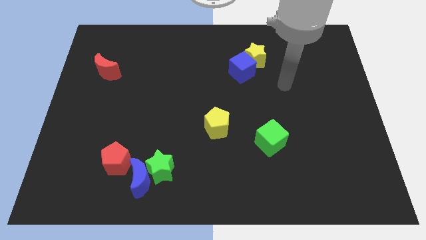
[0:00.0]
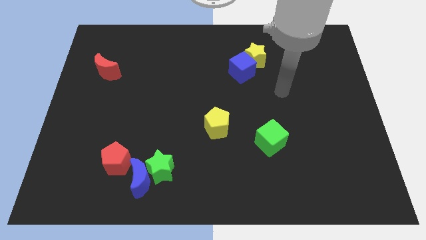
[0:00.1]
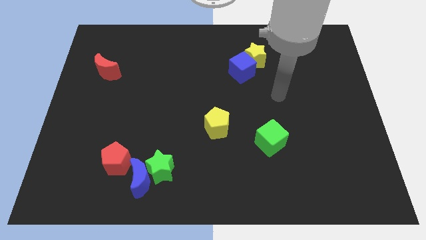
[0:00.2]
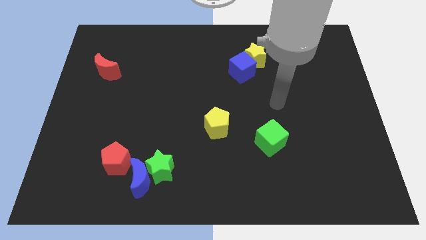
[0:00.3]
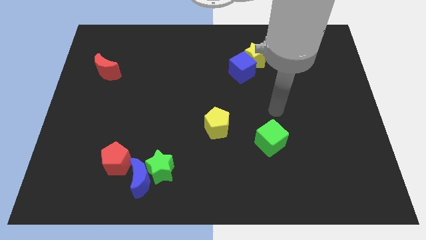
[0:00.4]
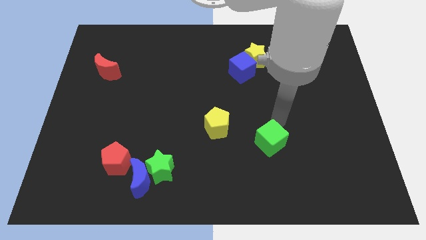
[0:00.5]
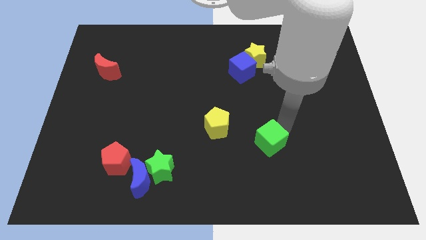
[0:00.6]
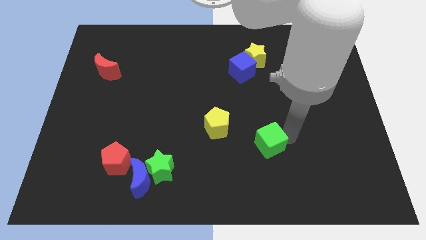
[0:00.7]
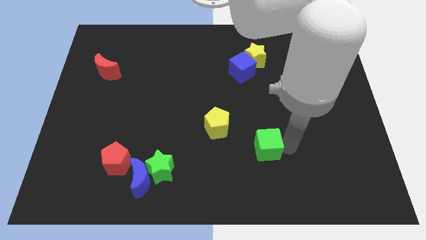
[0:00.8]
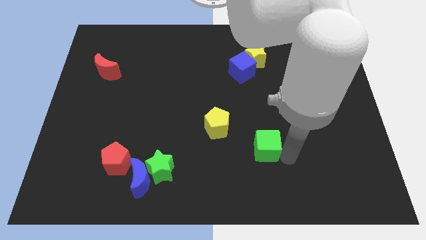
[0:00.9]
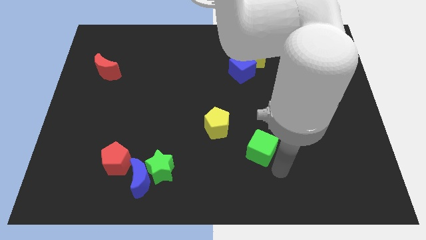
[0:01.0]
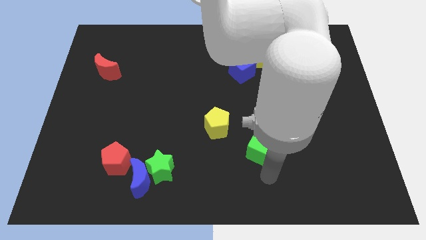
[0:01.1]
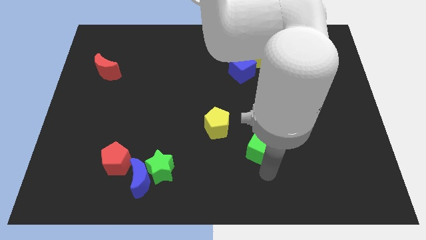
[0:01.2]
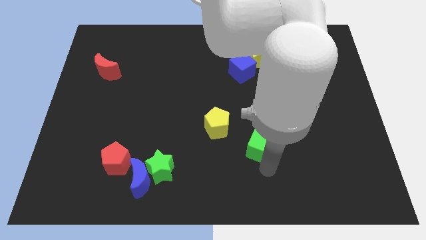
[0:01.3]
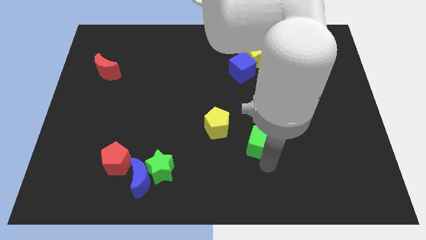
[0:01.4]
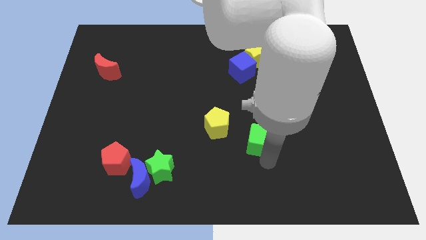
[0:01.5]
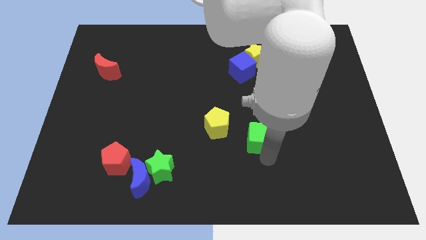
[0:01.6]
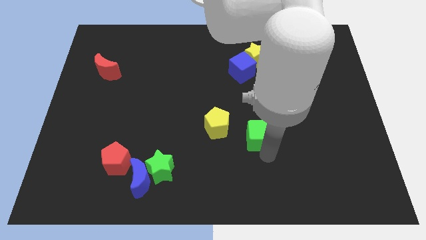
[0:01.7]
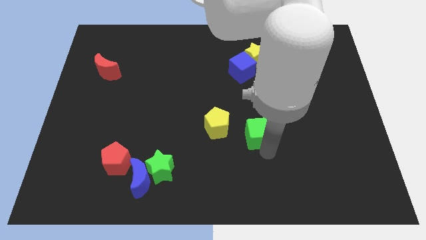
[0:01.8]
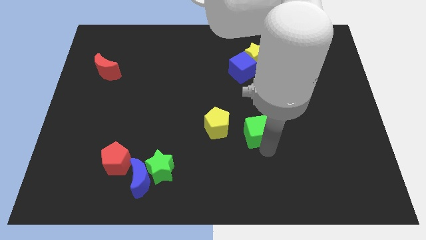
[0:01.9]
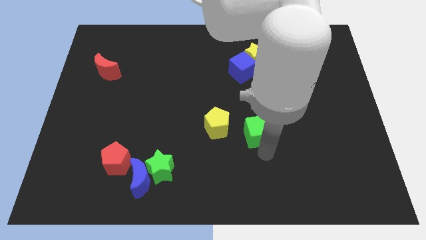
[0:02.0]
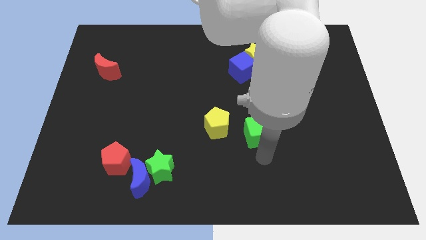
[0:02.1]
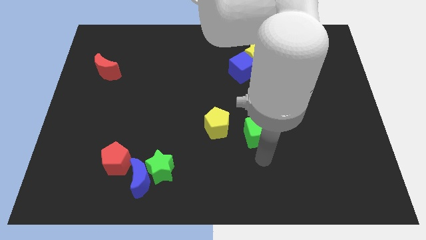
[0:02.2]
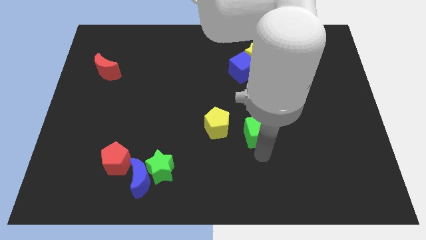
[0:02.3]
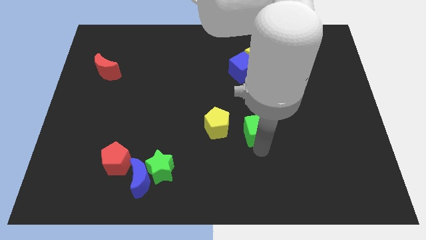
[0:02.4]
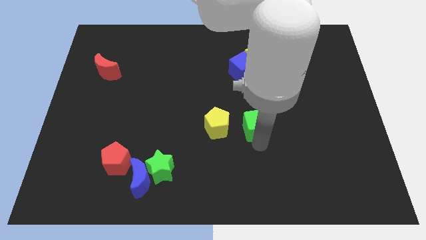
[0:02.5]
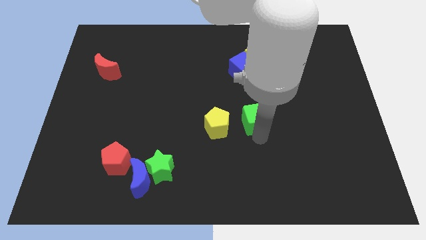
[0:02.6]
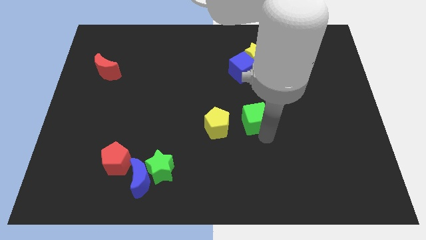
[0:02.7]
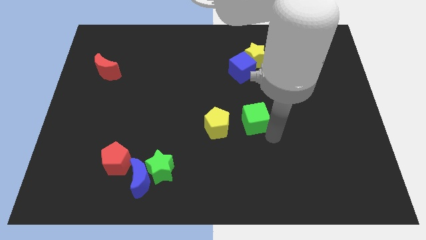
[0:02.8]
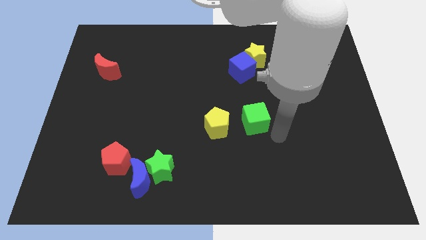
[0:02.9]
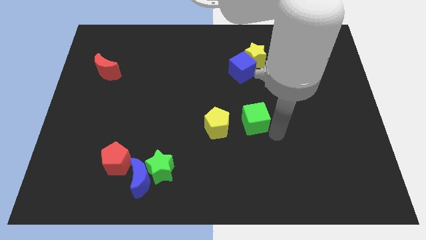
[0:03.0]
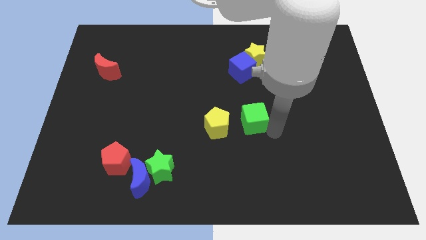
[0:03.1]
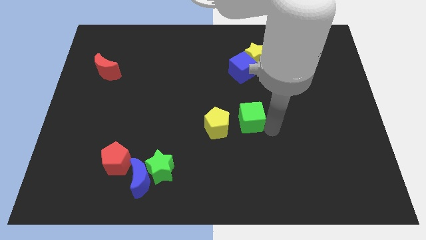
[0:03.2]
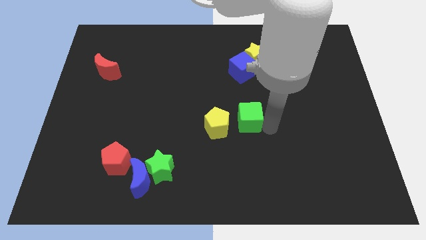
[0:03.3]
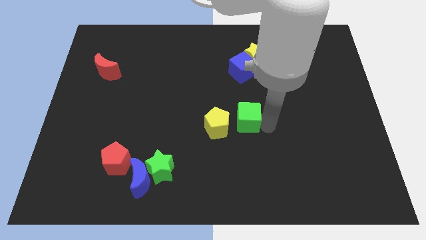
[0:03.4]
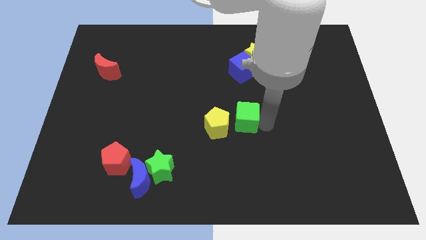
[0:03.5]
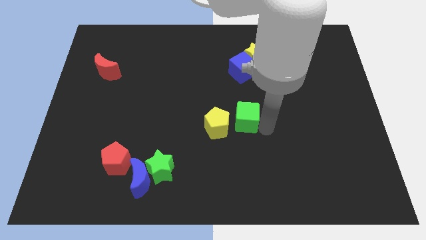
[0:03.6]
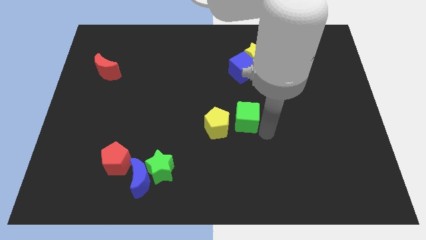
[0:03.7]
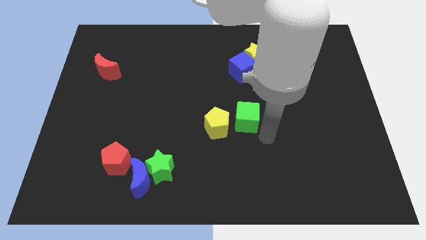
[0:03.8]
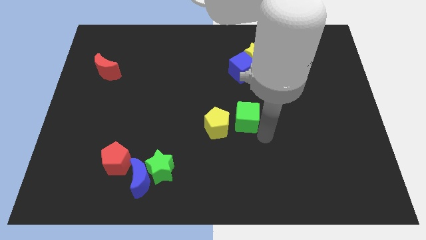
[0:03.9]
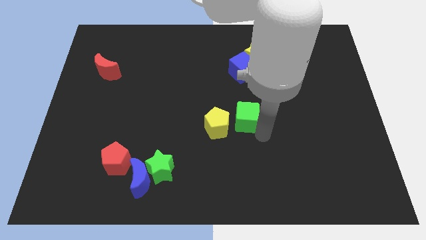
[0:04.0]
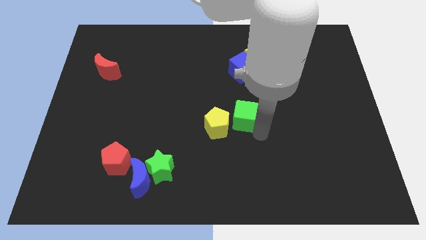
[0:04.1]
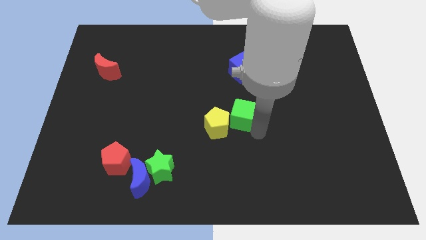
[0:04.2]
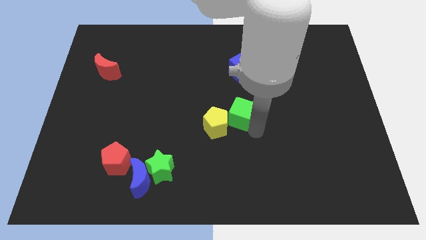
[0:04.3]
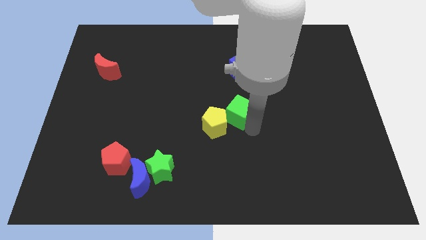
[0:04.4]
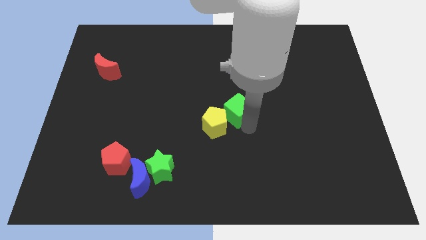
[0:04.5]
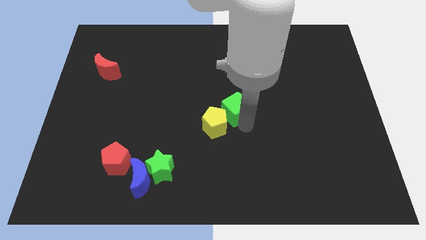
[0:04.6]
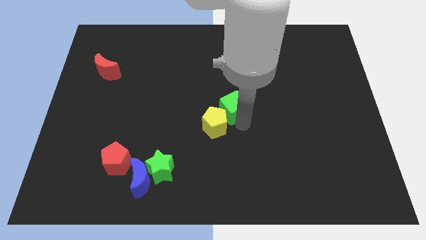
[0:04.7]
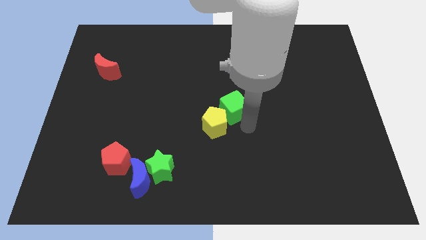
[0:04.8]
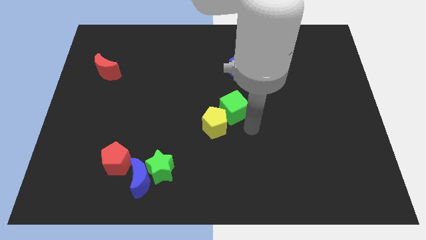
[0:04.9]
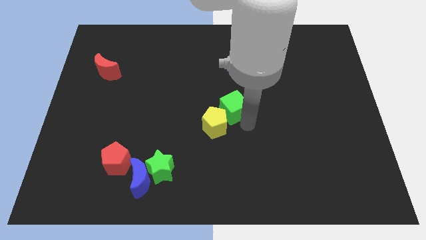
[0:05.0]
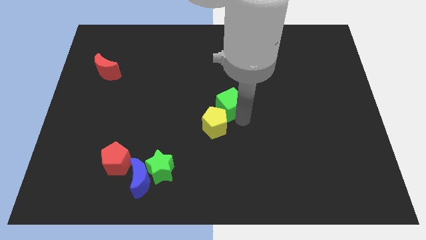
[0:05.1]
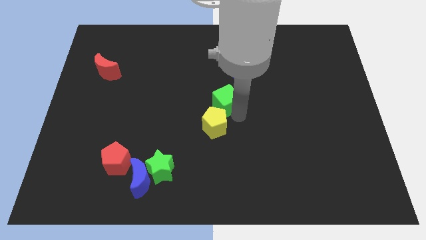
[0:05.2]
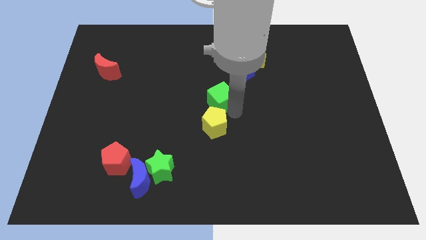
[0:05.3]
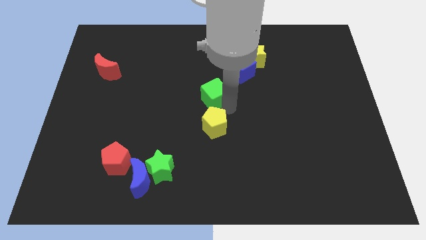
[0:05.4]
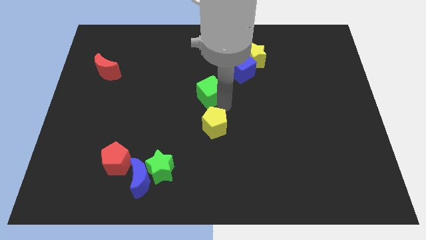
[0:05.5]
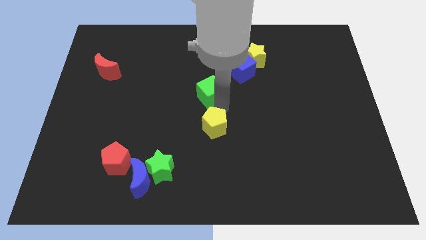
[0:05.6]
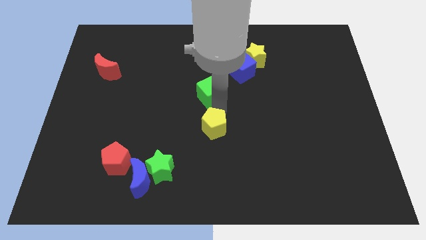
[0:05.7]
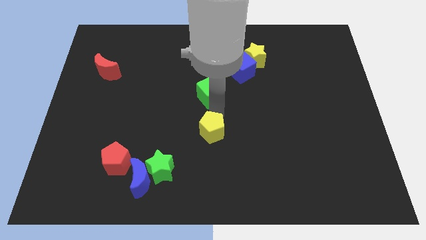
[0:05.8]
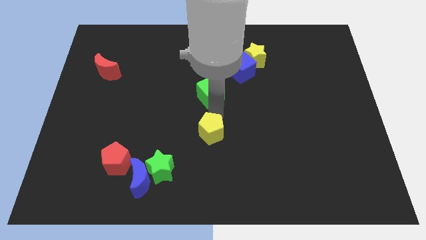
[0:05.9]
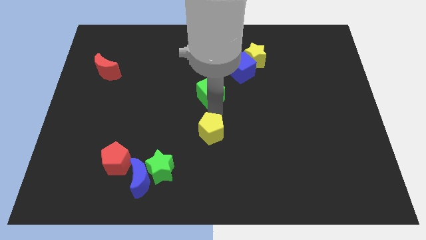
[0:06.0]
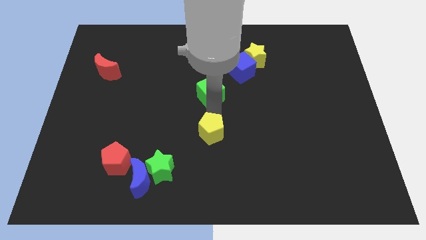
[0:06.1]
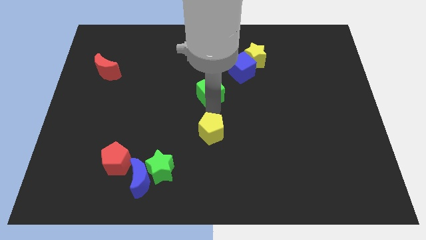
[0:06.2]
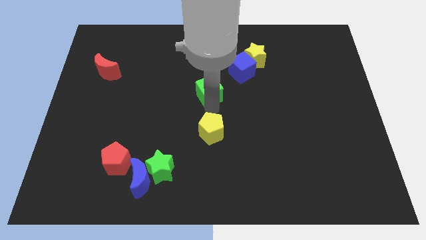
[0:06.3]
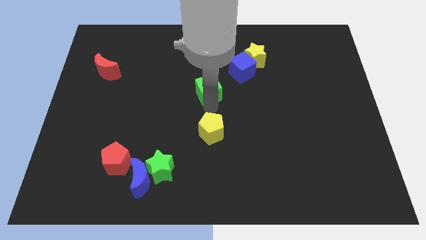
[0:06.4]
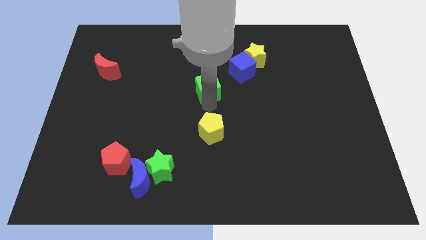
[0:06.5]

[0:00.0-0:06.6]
push the green cube up and then to the left

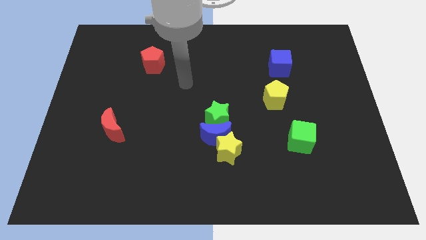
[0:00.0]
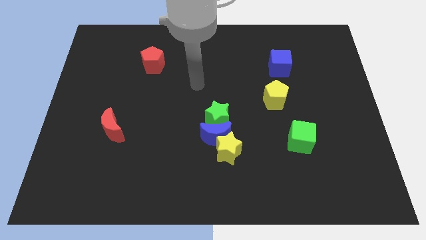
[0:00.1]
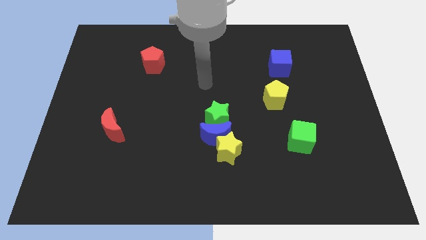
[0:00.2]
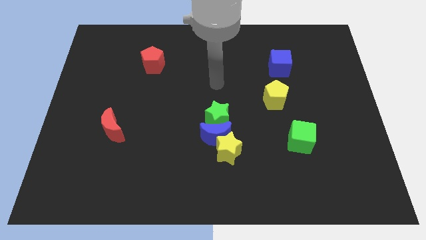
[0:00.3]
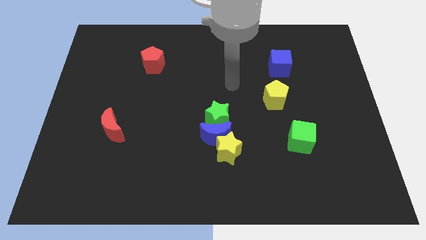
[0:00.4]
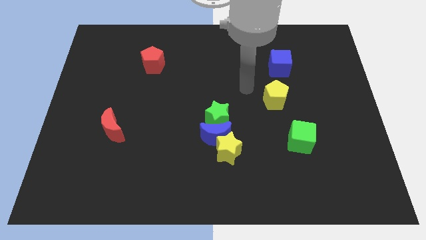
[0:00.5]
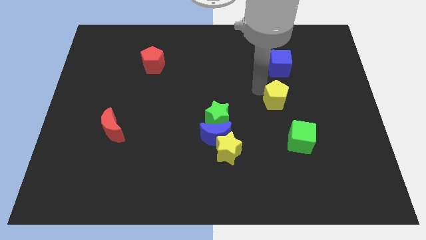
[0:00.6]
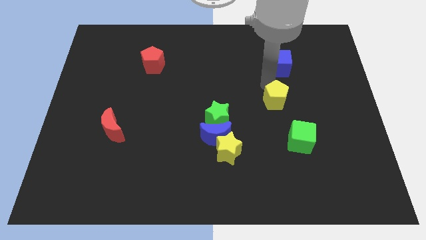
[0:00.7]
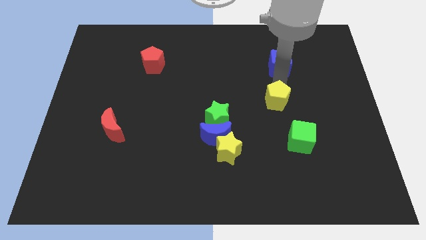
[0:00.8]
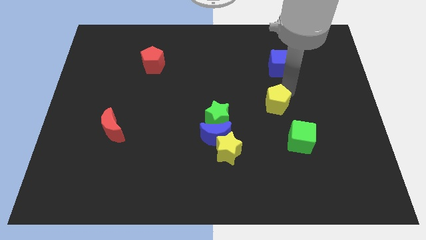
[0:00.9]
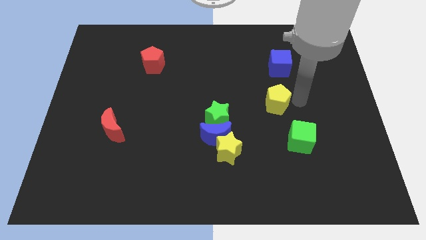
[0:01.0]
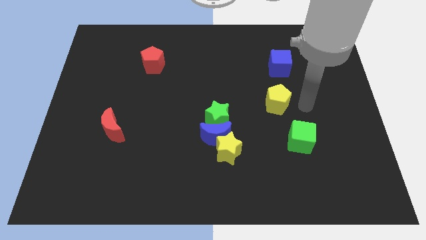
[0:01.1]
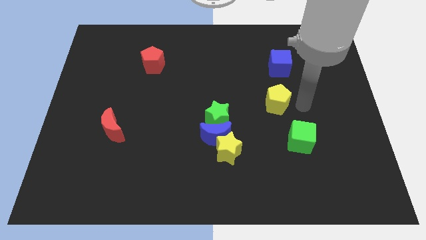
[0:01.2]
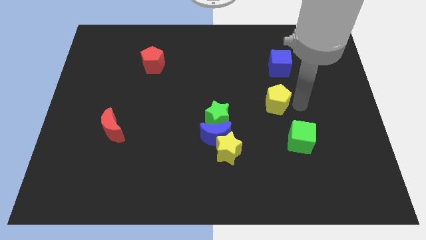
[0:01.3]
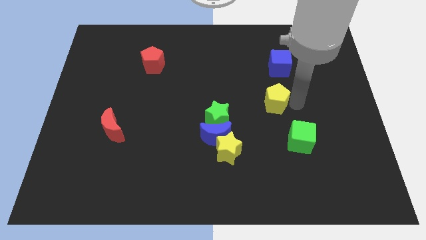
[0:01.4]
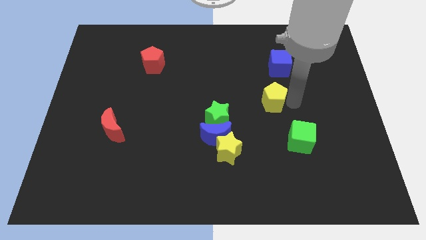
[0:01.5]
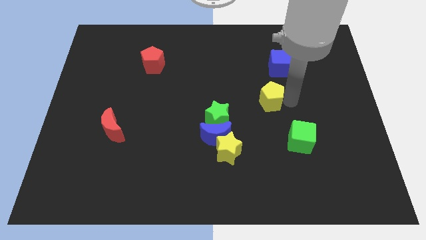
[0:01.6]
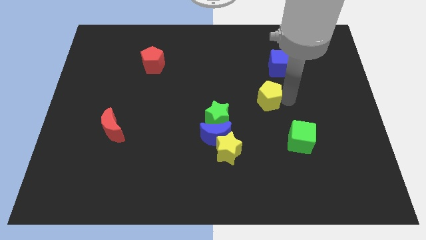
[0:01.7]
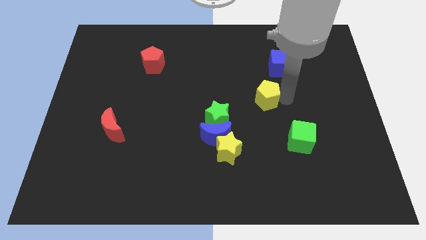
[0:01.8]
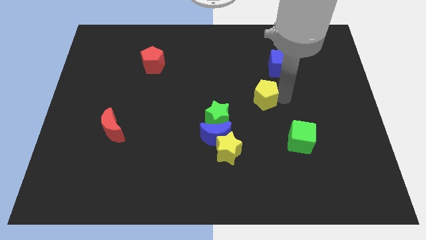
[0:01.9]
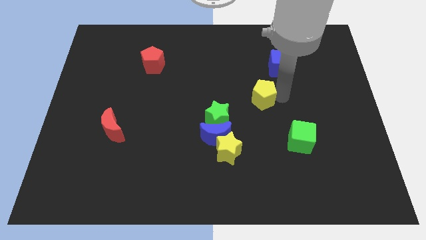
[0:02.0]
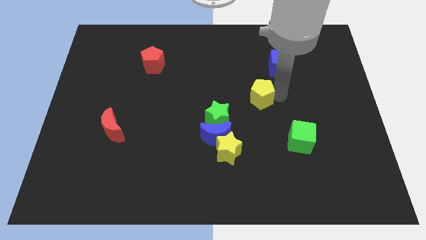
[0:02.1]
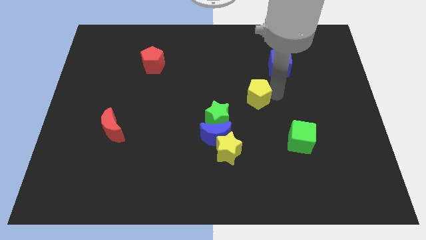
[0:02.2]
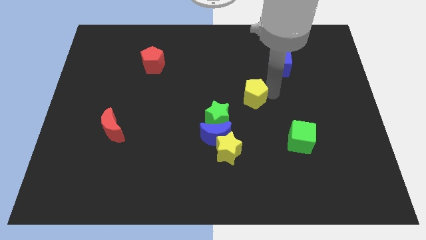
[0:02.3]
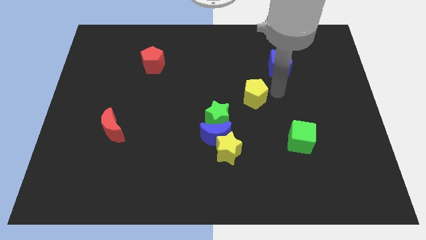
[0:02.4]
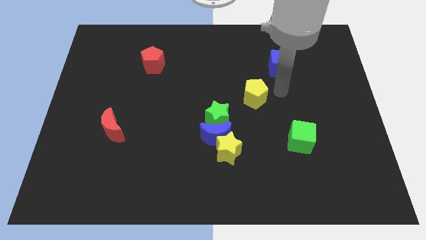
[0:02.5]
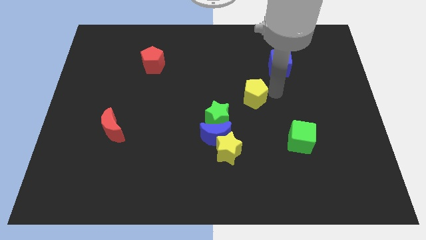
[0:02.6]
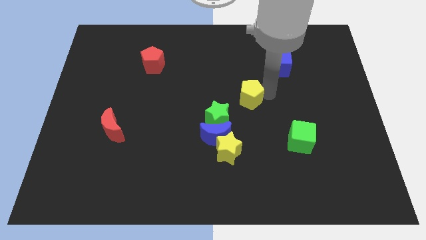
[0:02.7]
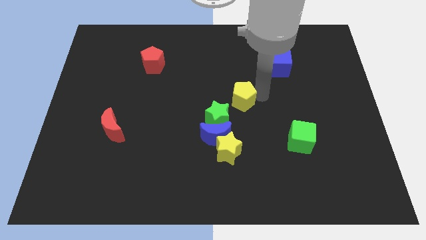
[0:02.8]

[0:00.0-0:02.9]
slide the yellow pentagon left somewhat
